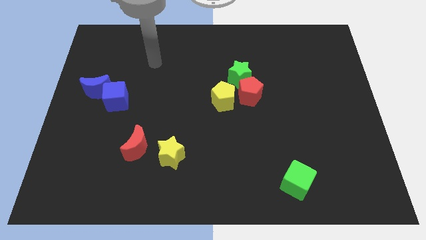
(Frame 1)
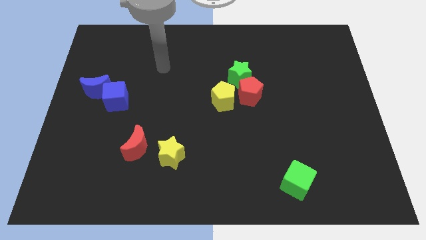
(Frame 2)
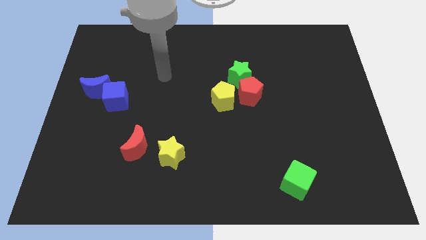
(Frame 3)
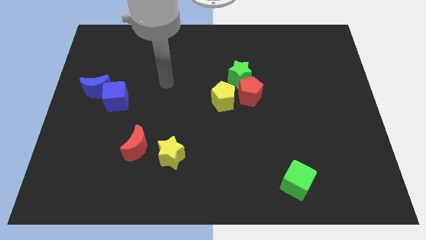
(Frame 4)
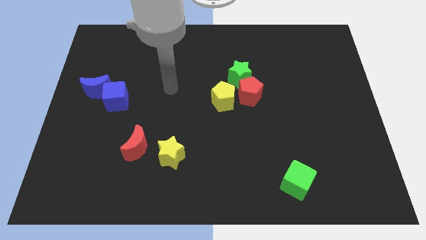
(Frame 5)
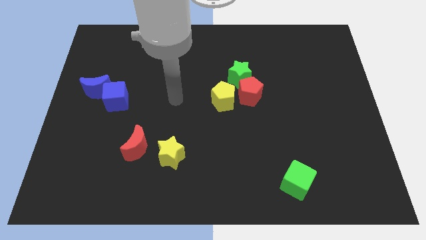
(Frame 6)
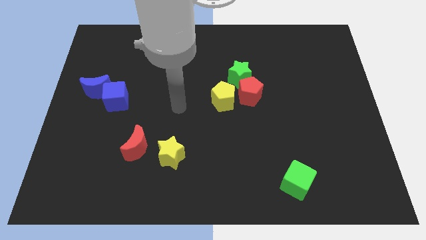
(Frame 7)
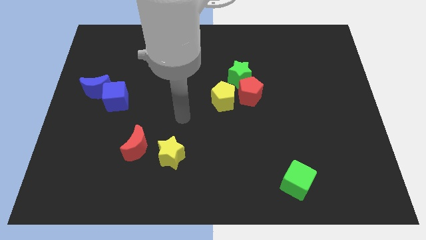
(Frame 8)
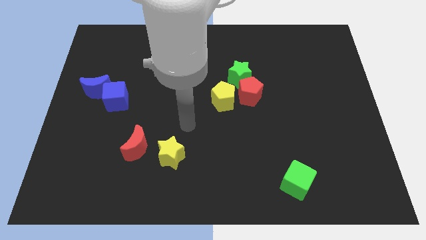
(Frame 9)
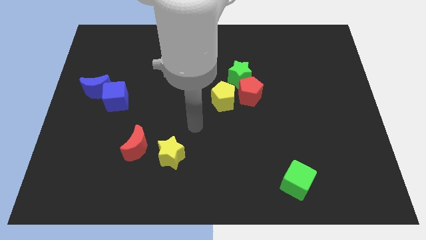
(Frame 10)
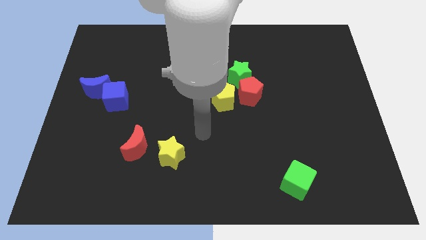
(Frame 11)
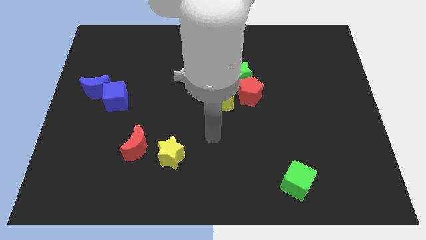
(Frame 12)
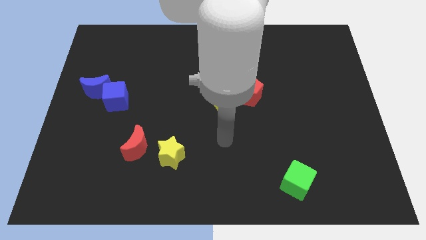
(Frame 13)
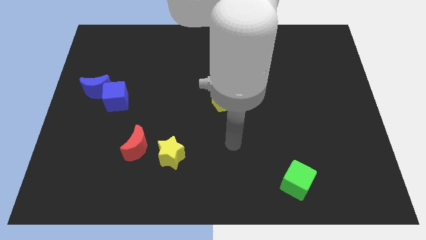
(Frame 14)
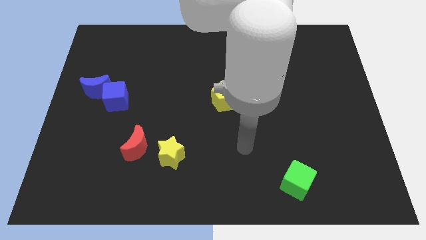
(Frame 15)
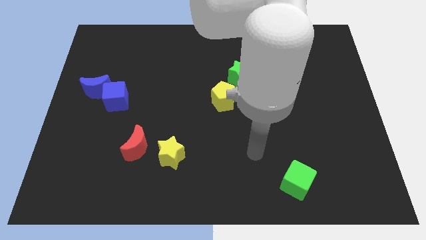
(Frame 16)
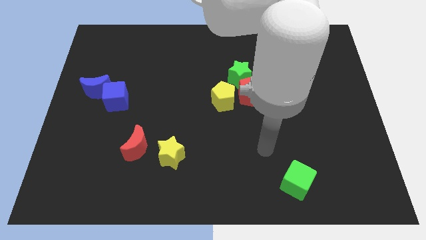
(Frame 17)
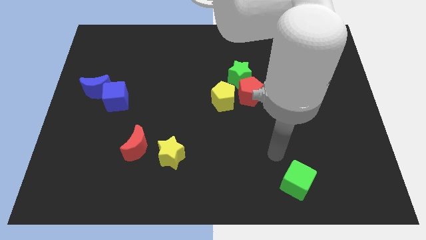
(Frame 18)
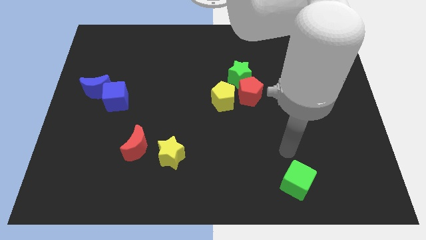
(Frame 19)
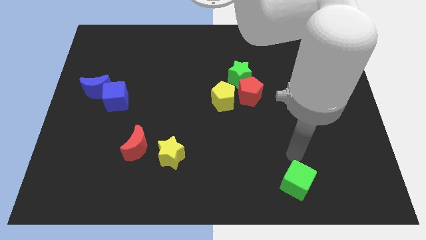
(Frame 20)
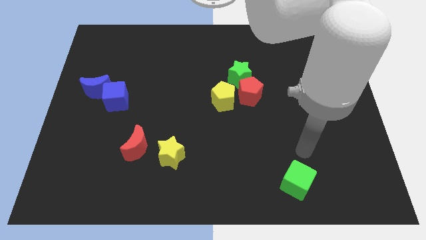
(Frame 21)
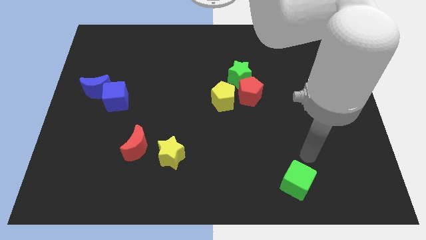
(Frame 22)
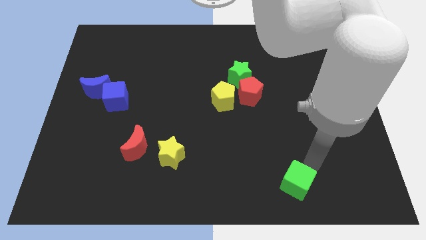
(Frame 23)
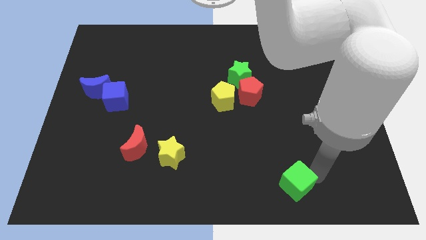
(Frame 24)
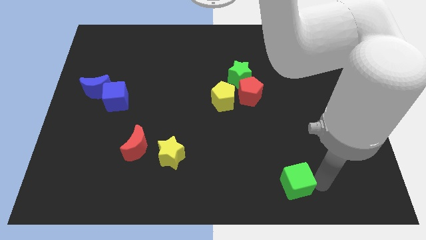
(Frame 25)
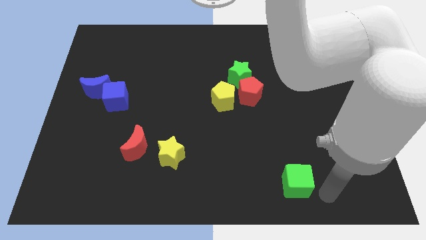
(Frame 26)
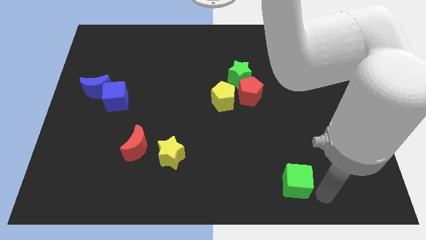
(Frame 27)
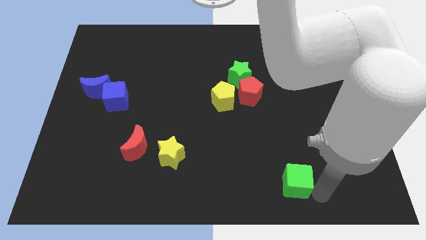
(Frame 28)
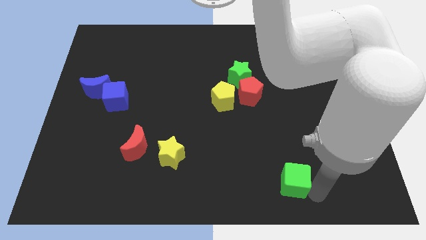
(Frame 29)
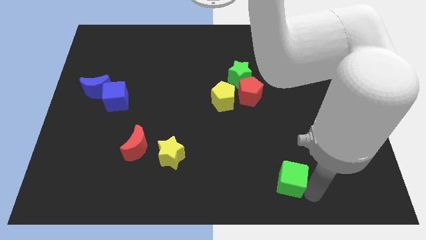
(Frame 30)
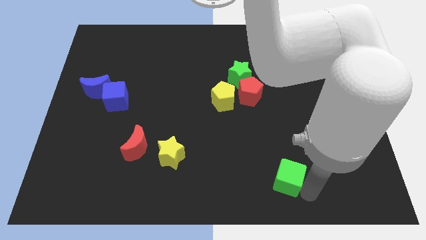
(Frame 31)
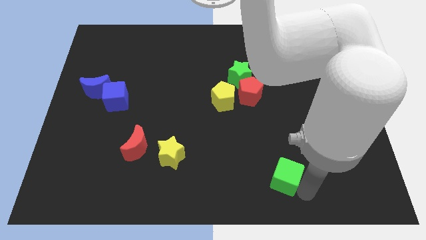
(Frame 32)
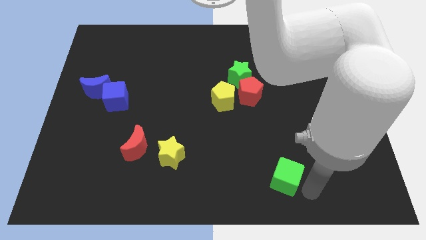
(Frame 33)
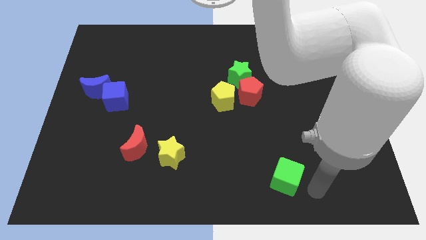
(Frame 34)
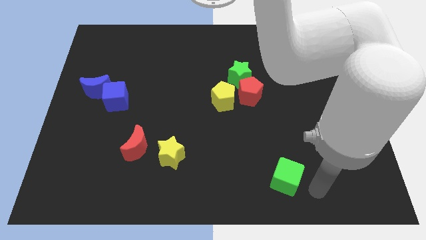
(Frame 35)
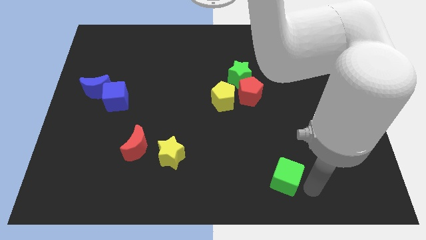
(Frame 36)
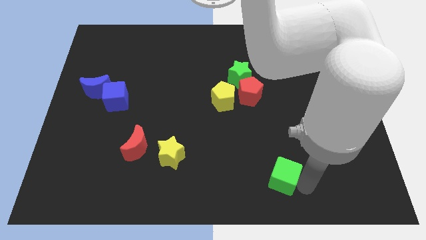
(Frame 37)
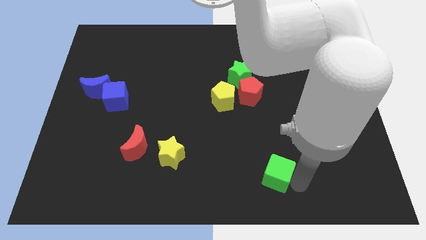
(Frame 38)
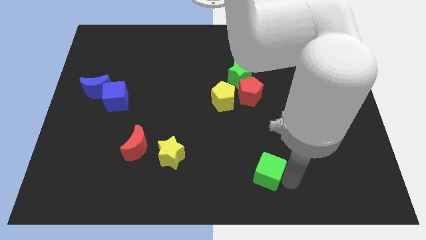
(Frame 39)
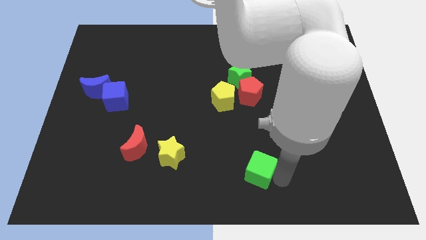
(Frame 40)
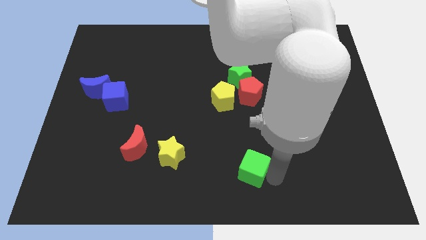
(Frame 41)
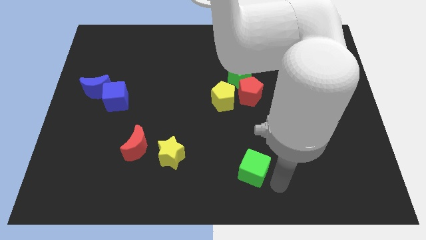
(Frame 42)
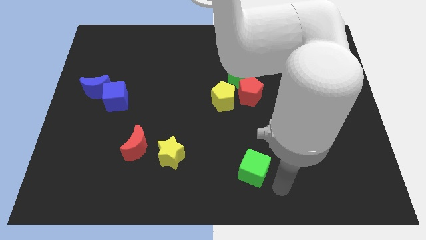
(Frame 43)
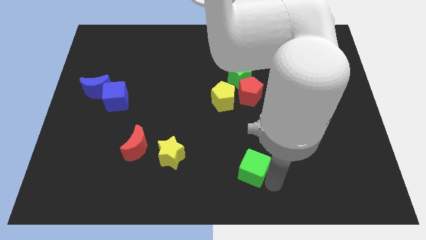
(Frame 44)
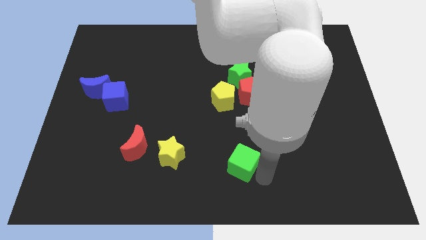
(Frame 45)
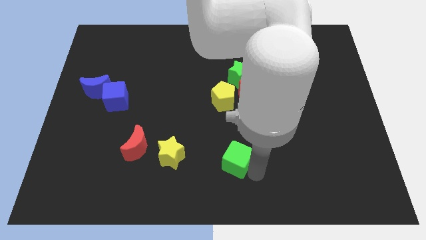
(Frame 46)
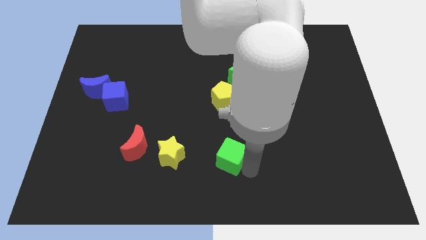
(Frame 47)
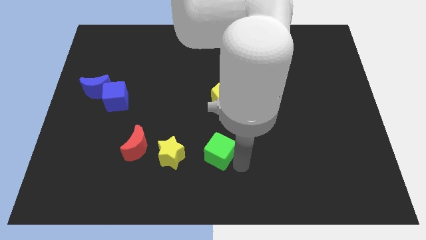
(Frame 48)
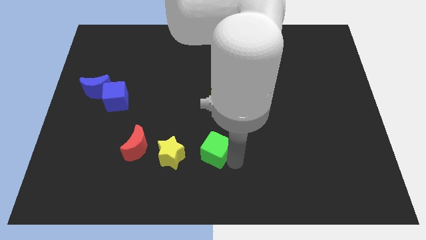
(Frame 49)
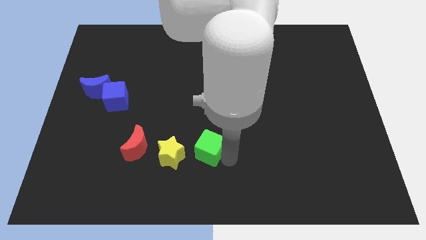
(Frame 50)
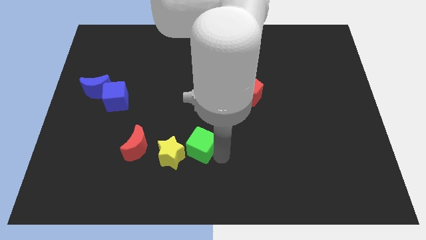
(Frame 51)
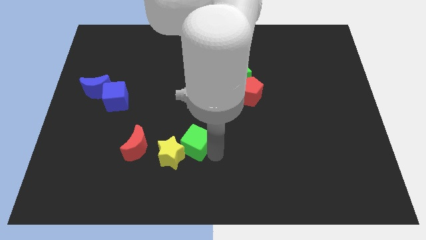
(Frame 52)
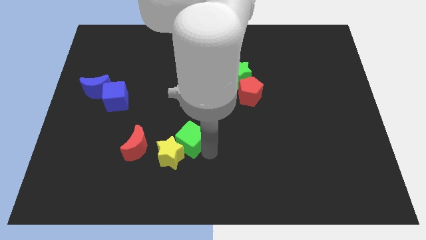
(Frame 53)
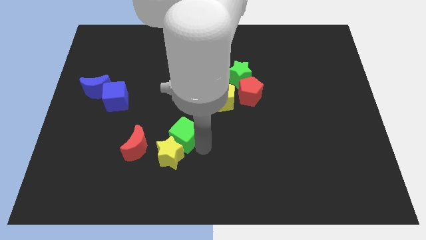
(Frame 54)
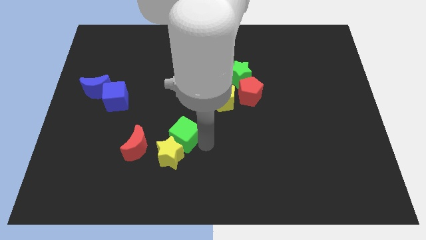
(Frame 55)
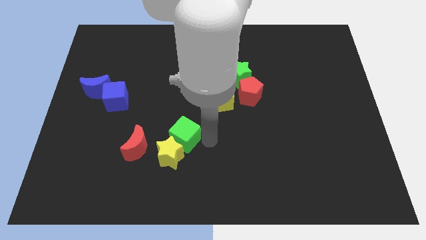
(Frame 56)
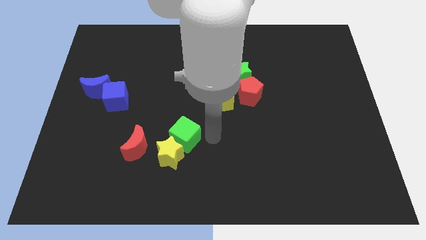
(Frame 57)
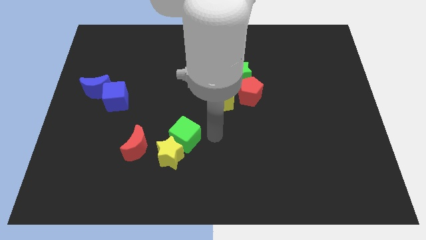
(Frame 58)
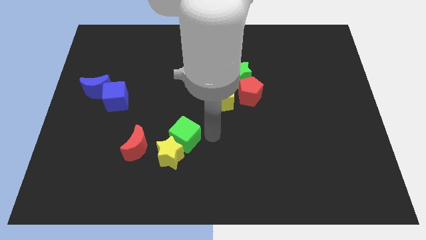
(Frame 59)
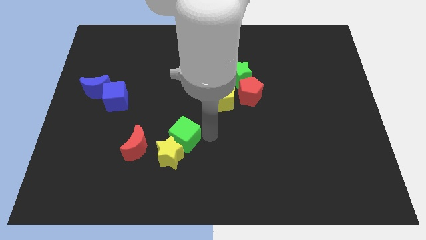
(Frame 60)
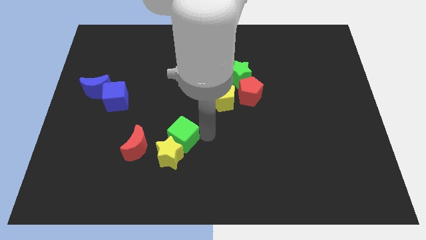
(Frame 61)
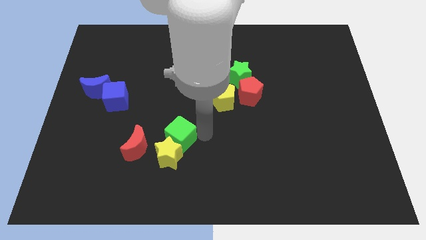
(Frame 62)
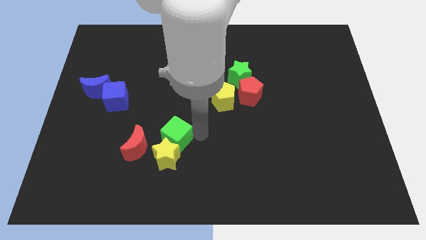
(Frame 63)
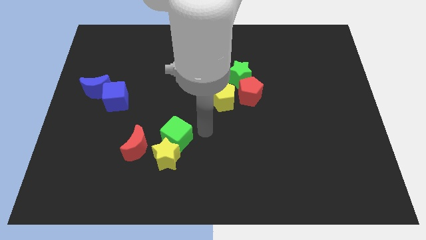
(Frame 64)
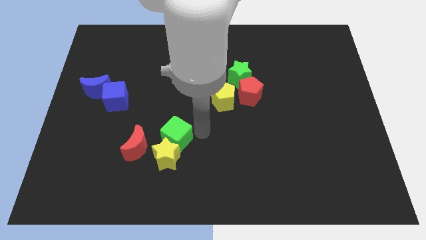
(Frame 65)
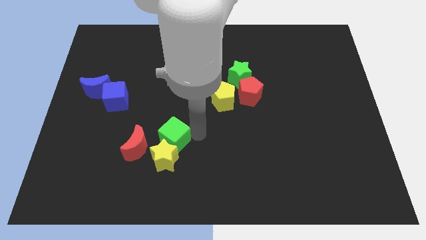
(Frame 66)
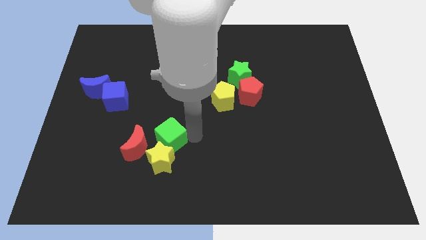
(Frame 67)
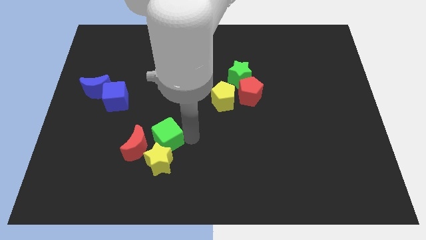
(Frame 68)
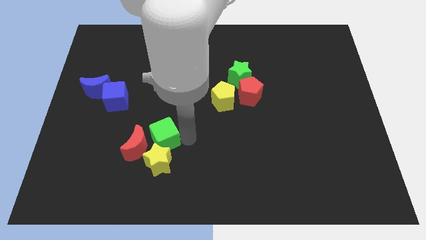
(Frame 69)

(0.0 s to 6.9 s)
push the green cube next to the red moon

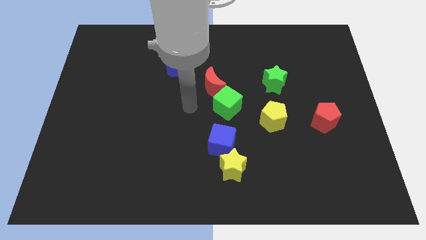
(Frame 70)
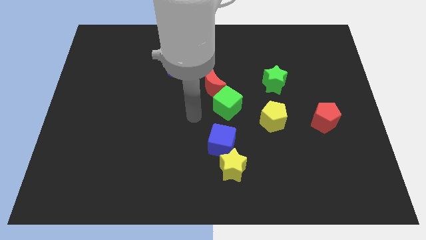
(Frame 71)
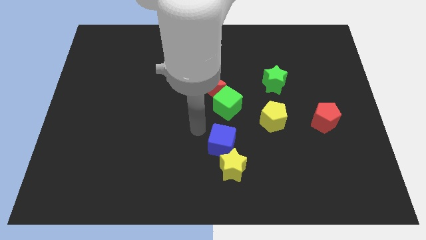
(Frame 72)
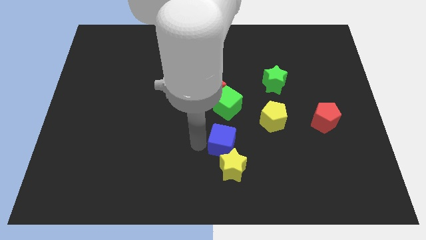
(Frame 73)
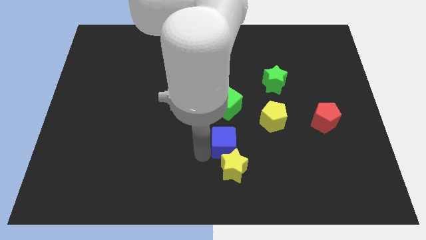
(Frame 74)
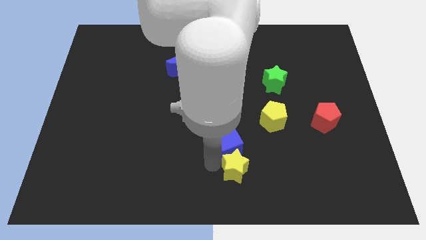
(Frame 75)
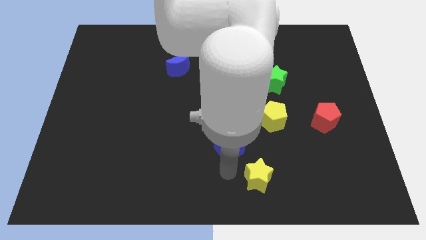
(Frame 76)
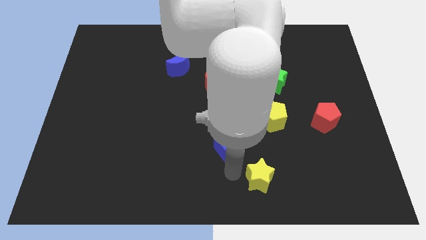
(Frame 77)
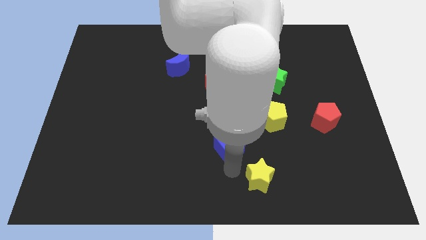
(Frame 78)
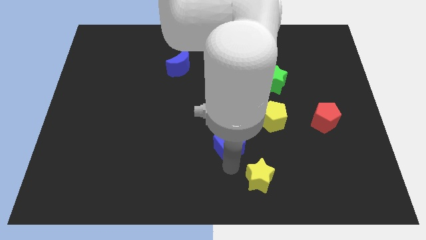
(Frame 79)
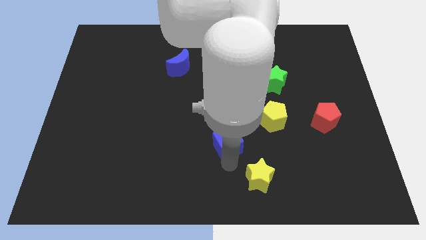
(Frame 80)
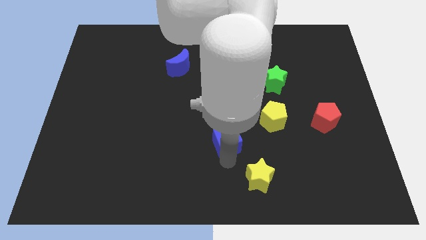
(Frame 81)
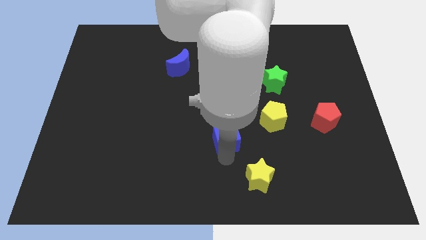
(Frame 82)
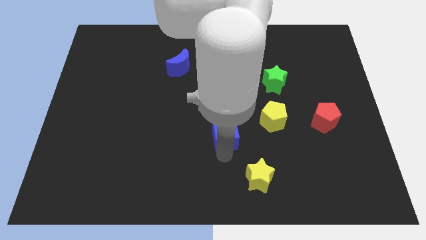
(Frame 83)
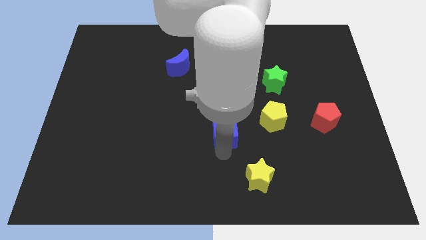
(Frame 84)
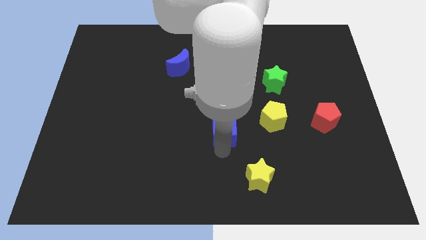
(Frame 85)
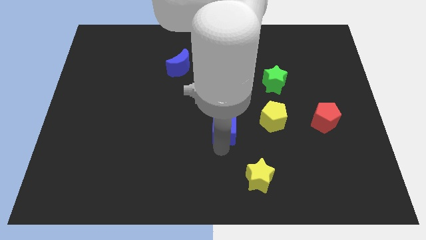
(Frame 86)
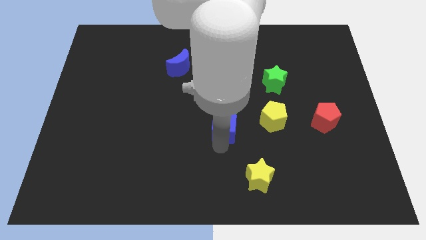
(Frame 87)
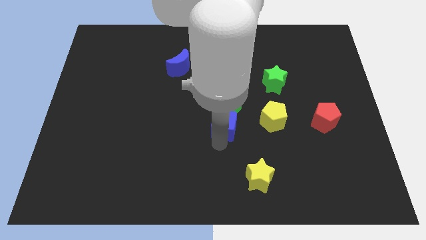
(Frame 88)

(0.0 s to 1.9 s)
move the blue cube next to the green cube
